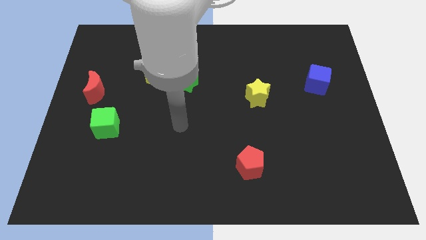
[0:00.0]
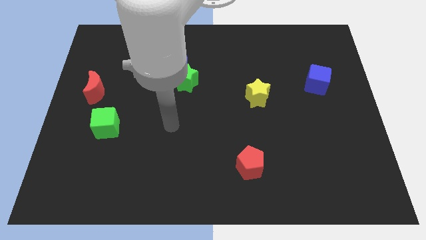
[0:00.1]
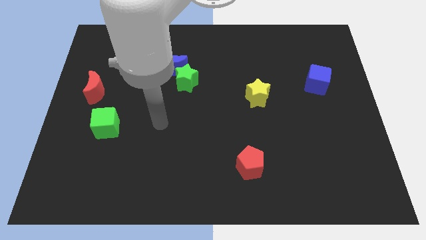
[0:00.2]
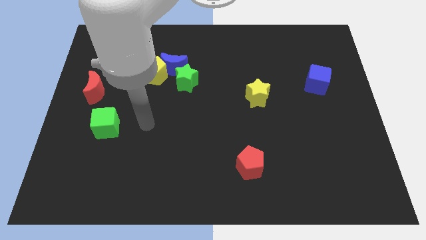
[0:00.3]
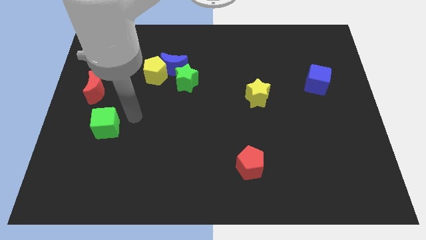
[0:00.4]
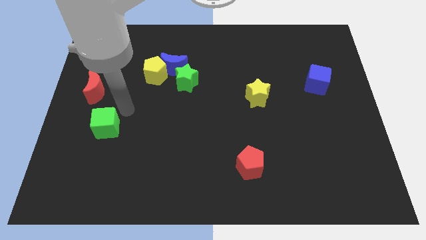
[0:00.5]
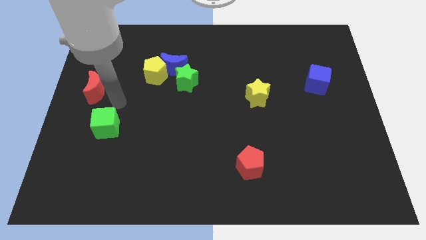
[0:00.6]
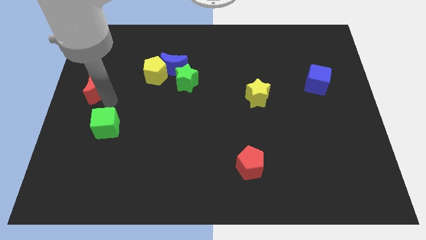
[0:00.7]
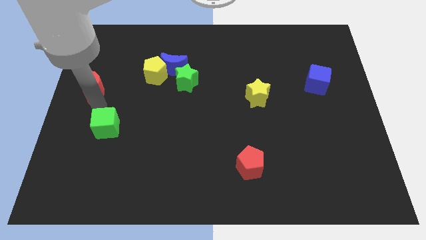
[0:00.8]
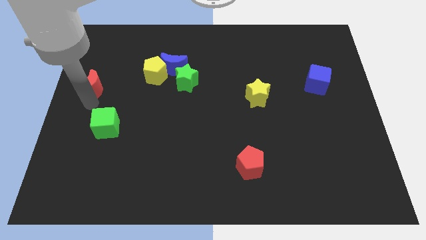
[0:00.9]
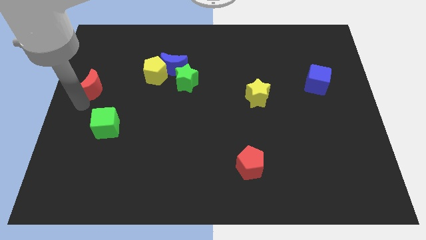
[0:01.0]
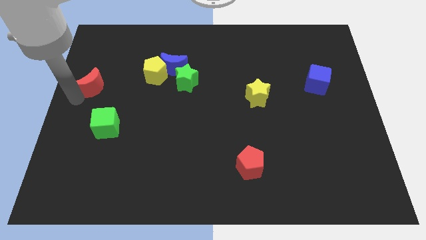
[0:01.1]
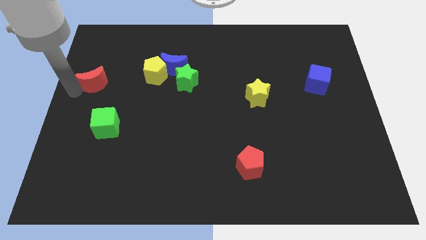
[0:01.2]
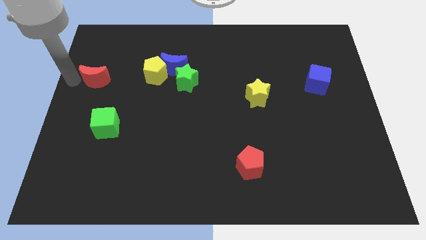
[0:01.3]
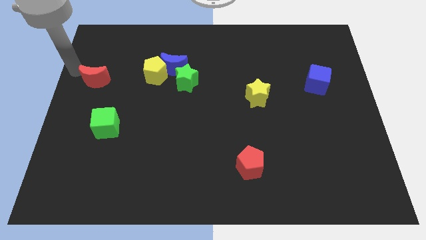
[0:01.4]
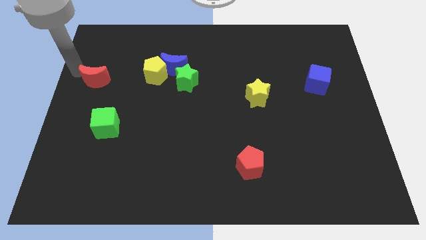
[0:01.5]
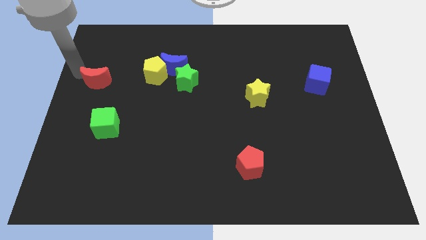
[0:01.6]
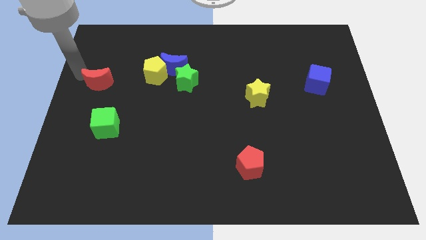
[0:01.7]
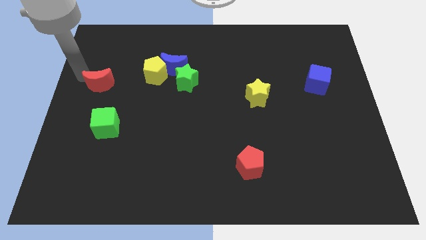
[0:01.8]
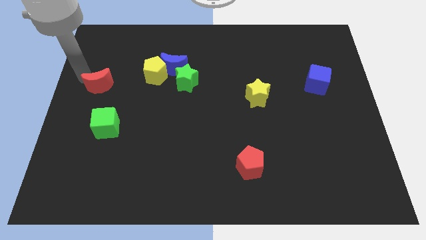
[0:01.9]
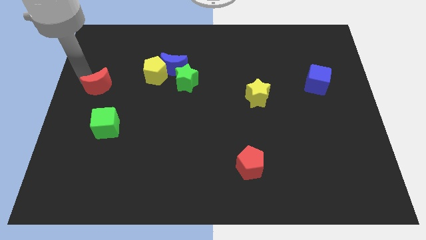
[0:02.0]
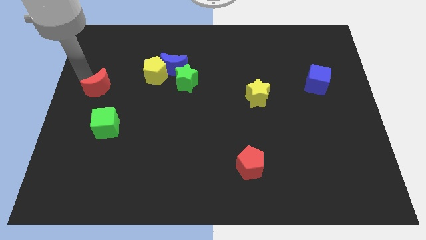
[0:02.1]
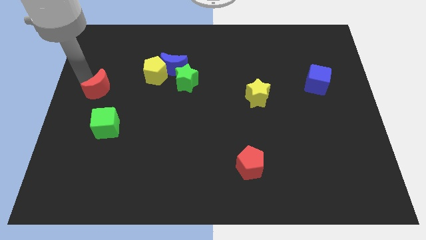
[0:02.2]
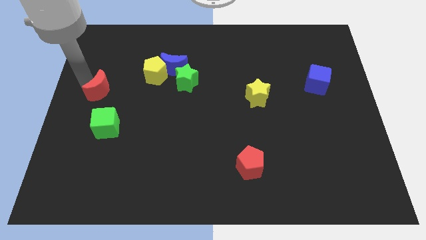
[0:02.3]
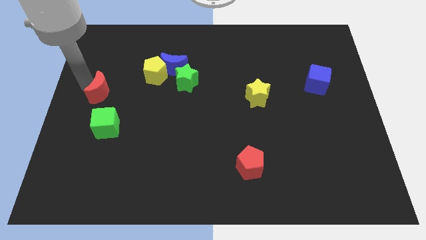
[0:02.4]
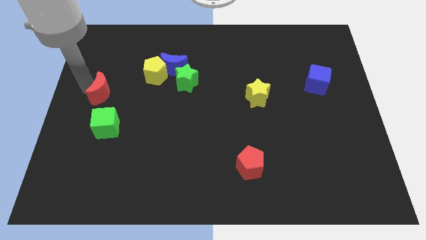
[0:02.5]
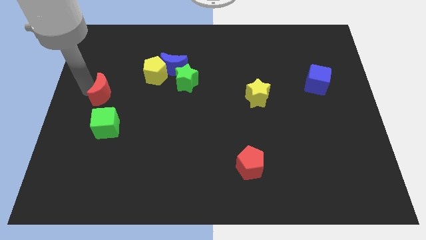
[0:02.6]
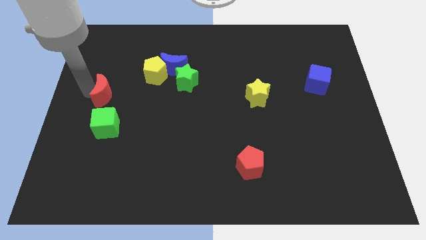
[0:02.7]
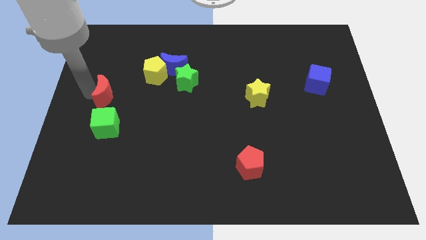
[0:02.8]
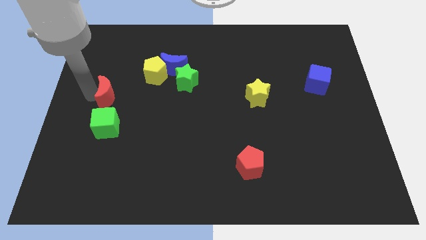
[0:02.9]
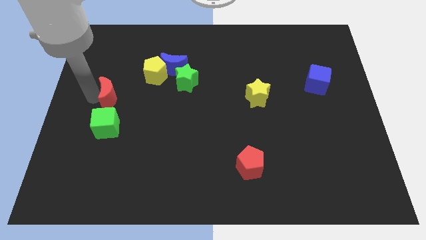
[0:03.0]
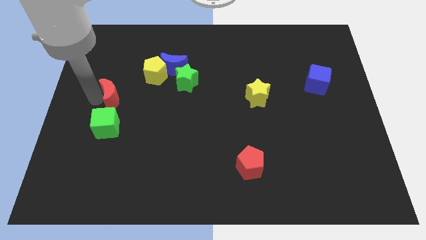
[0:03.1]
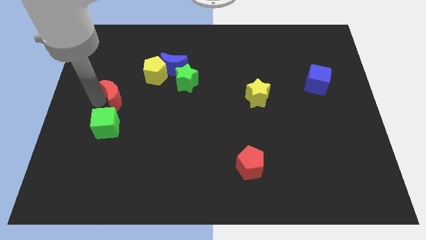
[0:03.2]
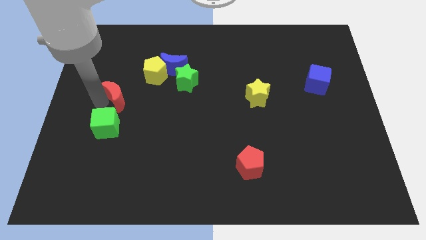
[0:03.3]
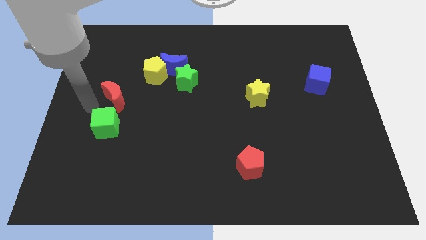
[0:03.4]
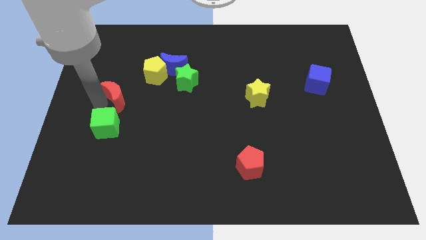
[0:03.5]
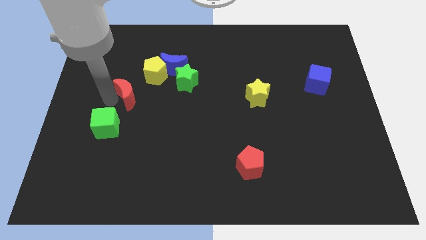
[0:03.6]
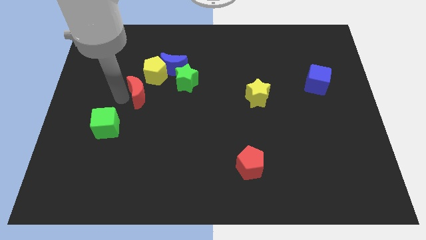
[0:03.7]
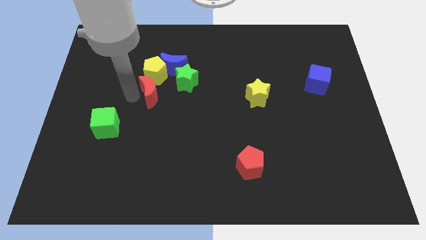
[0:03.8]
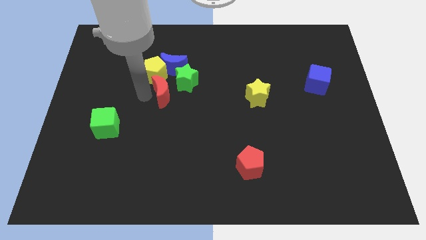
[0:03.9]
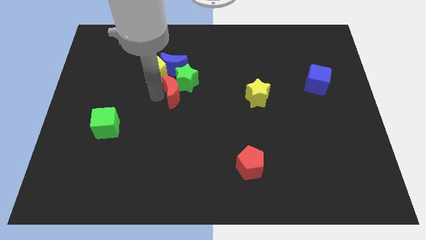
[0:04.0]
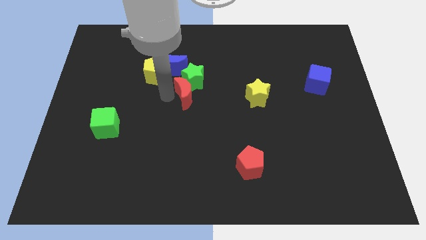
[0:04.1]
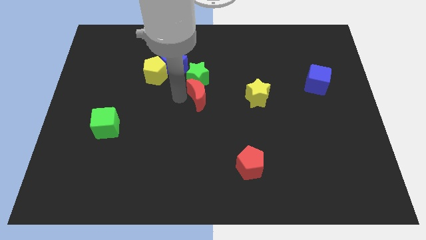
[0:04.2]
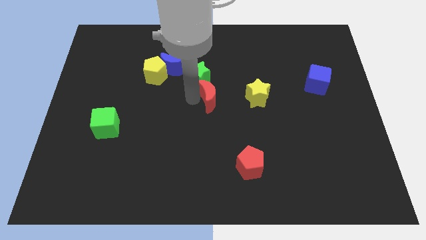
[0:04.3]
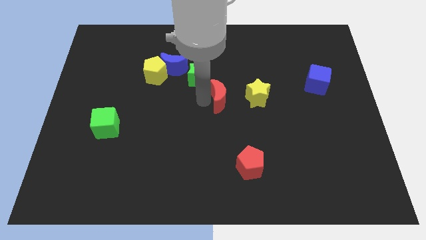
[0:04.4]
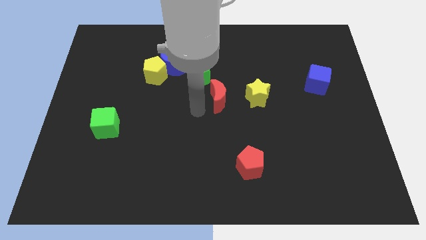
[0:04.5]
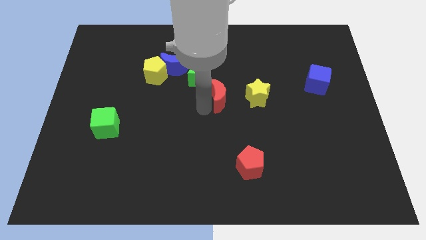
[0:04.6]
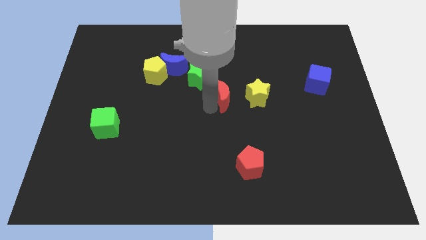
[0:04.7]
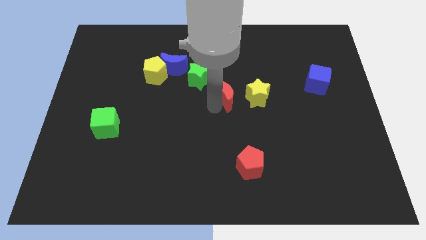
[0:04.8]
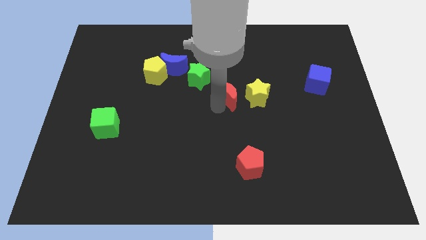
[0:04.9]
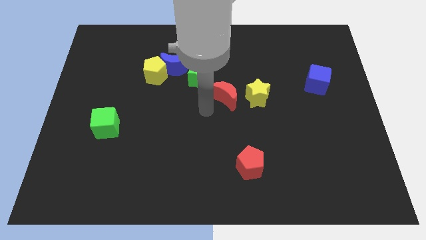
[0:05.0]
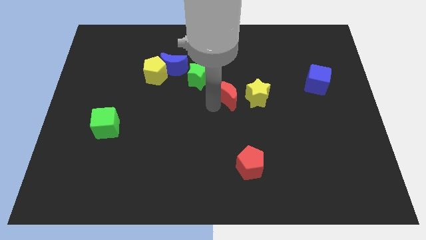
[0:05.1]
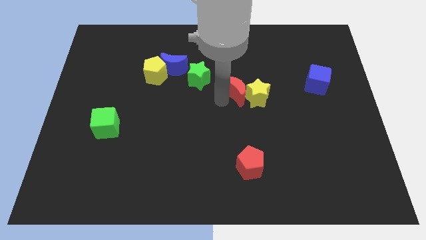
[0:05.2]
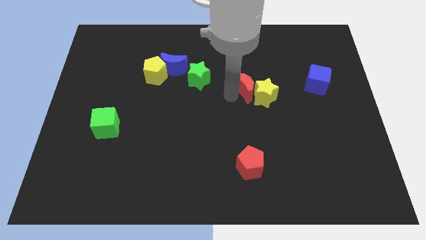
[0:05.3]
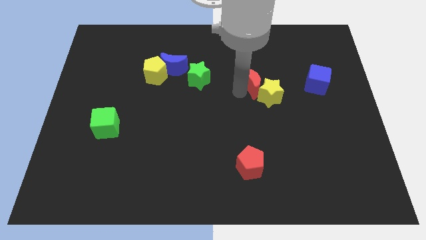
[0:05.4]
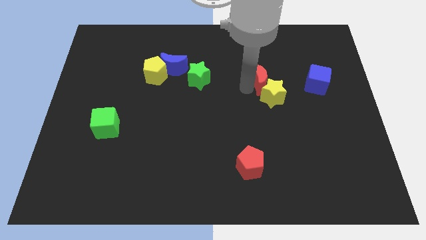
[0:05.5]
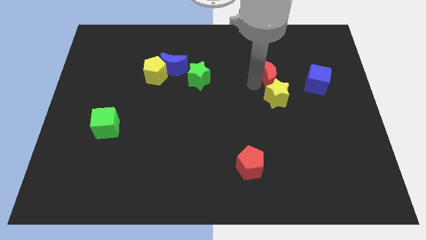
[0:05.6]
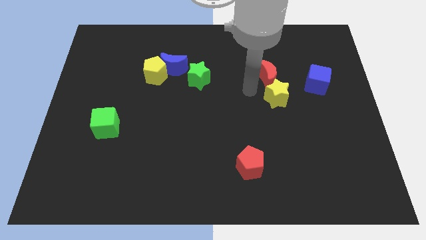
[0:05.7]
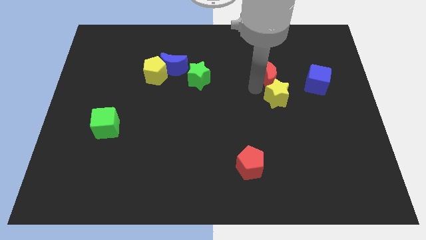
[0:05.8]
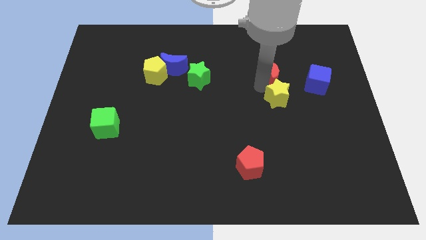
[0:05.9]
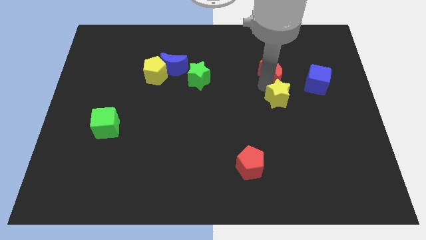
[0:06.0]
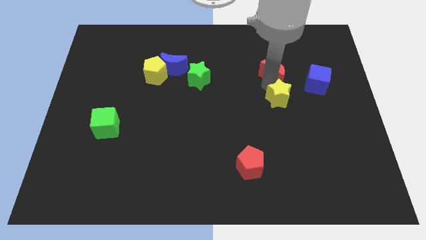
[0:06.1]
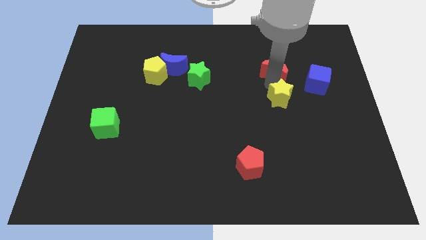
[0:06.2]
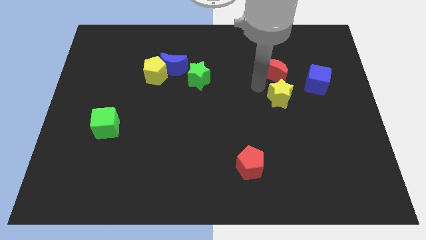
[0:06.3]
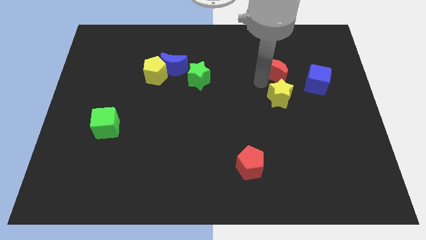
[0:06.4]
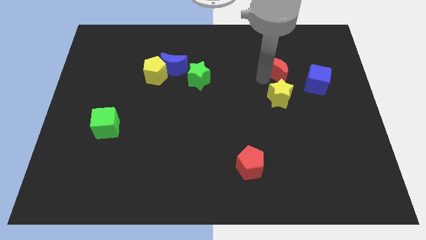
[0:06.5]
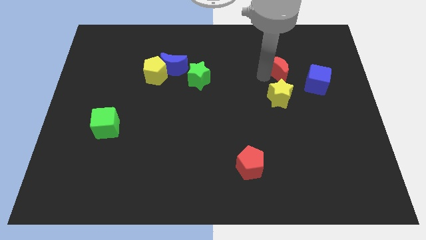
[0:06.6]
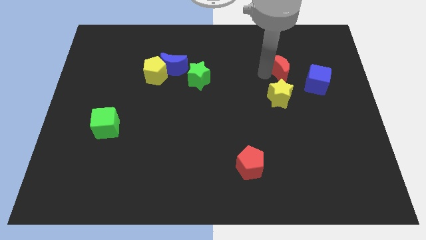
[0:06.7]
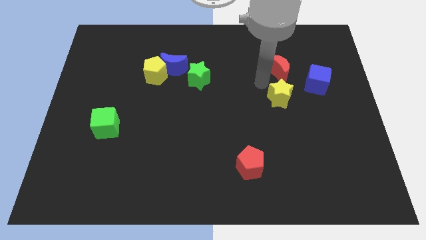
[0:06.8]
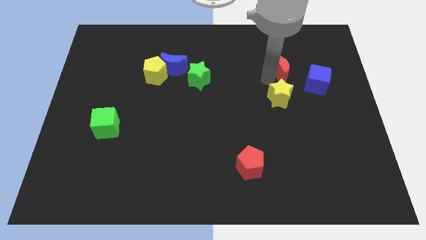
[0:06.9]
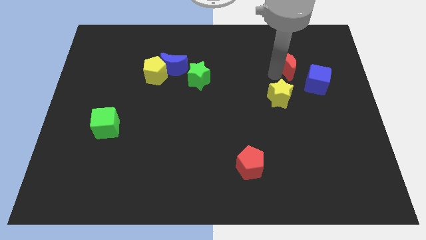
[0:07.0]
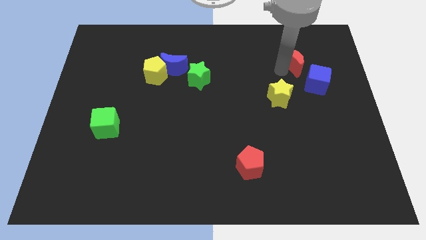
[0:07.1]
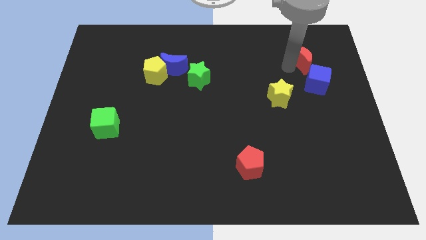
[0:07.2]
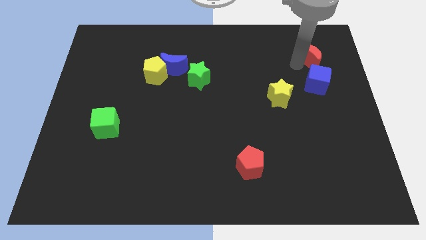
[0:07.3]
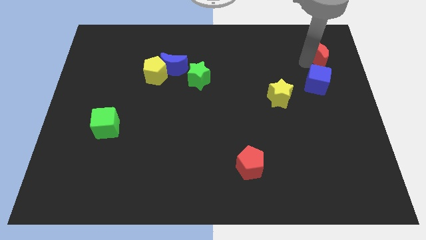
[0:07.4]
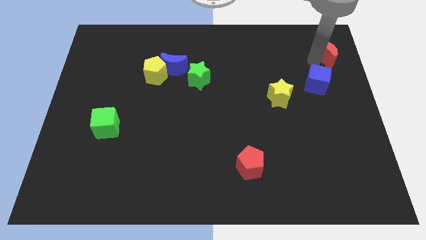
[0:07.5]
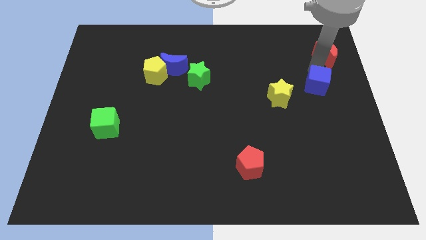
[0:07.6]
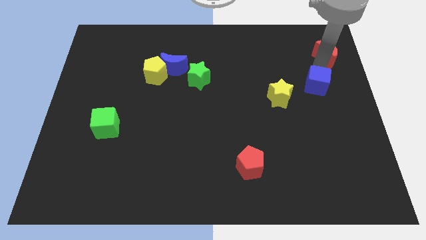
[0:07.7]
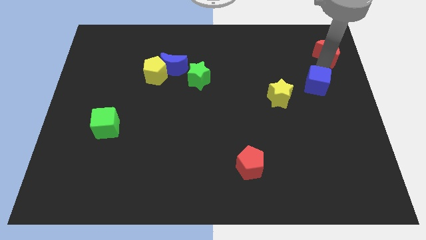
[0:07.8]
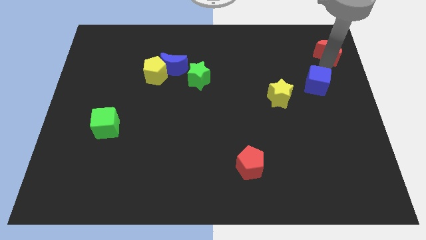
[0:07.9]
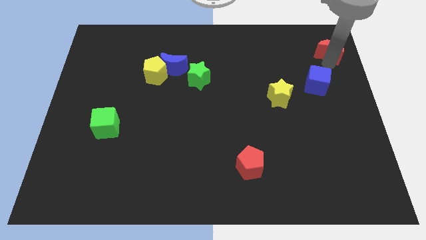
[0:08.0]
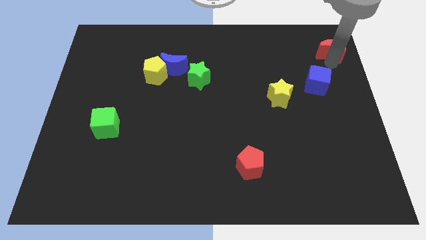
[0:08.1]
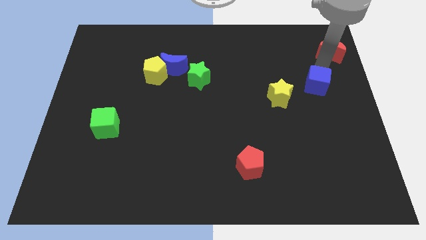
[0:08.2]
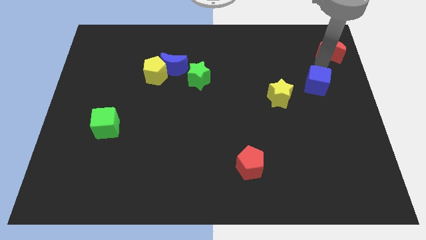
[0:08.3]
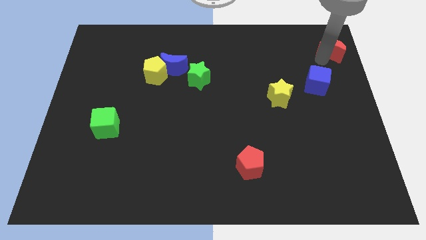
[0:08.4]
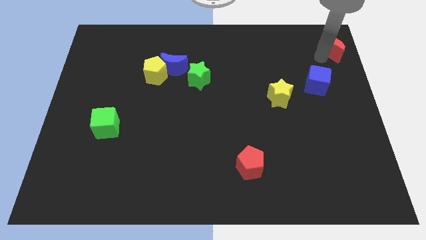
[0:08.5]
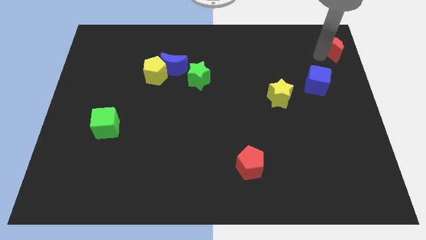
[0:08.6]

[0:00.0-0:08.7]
put the red moon to the top right corner
